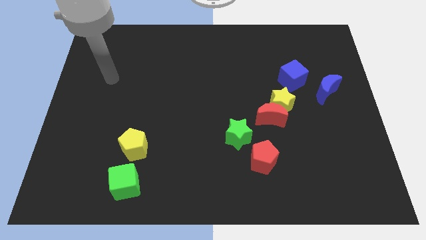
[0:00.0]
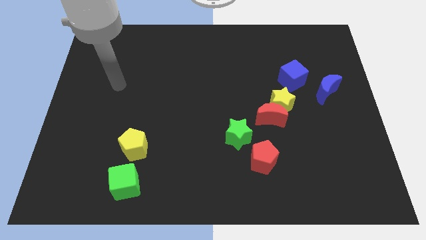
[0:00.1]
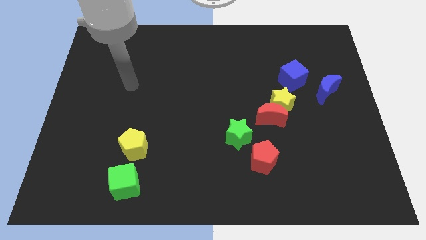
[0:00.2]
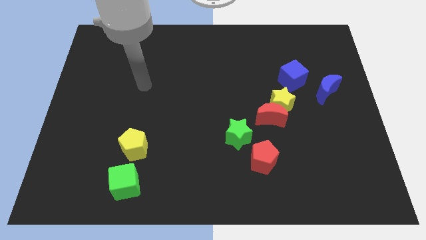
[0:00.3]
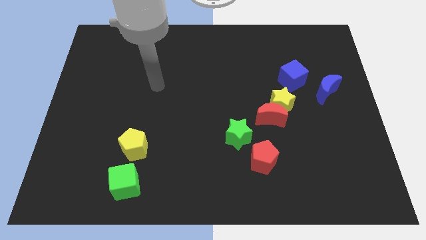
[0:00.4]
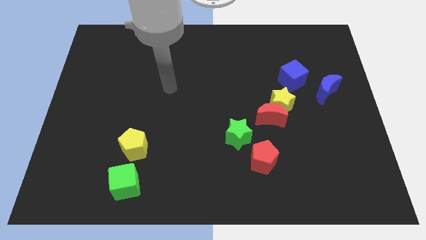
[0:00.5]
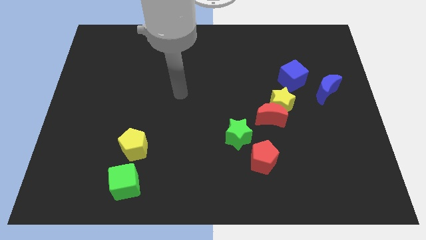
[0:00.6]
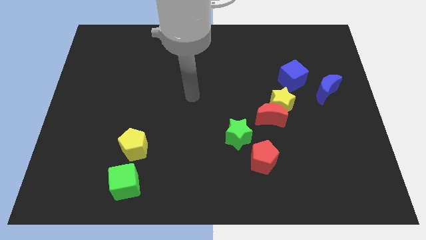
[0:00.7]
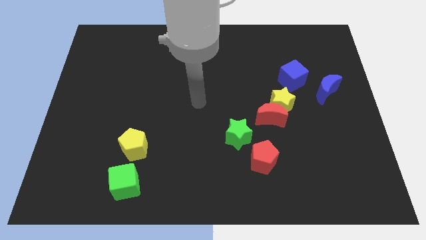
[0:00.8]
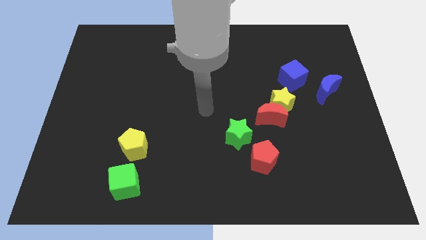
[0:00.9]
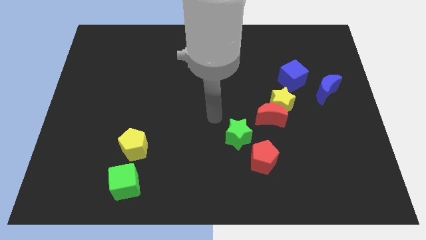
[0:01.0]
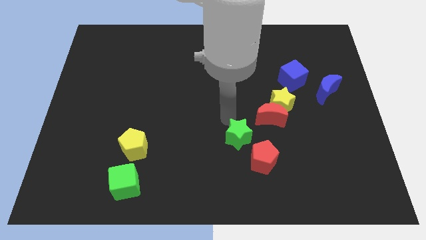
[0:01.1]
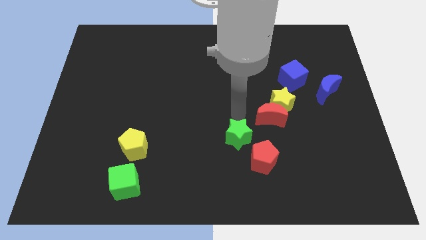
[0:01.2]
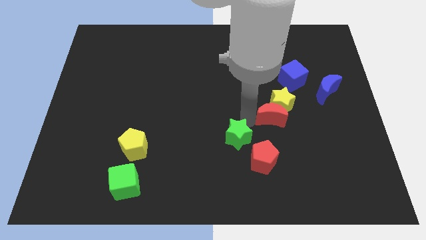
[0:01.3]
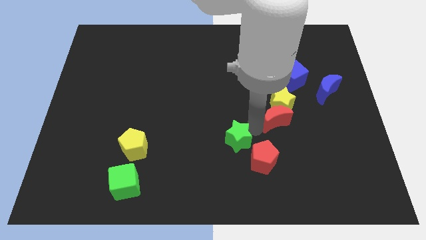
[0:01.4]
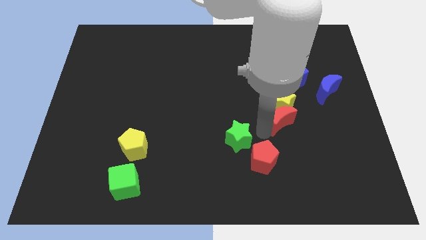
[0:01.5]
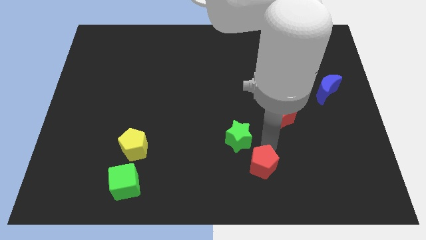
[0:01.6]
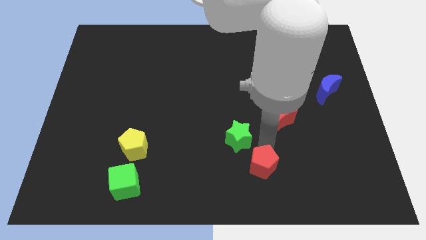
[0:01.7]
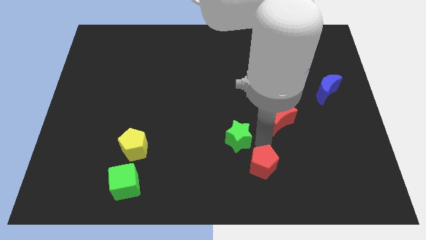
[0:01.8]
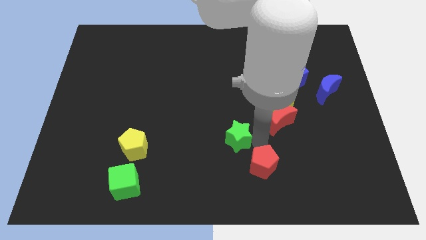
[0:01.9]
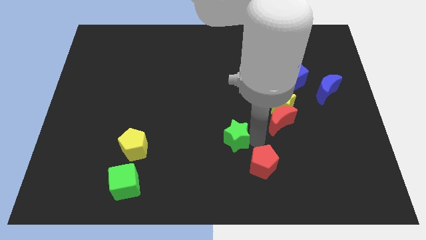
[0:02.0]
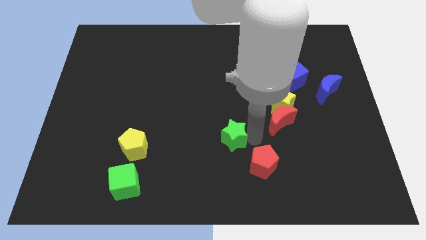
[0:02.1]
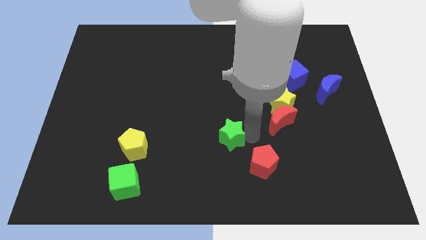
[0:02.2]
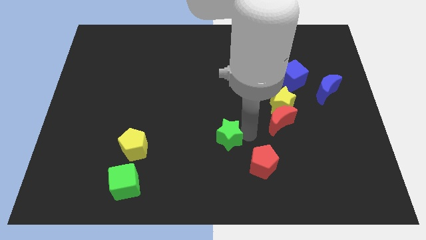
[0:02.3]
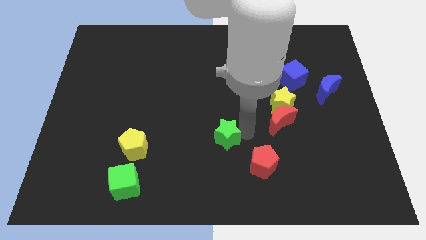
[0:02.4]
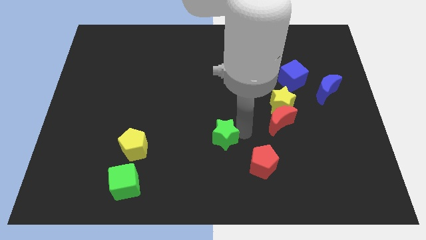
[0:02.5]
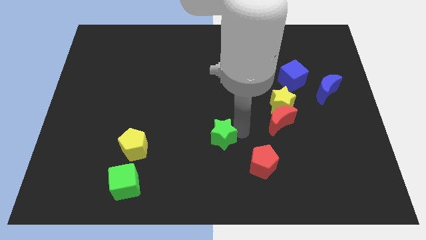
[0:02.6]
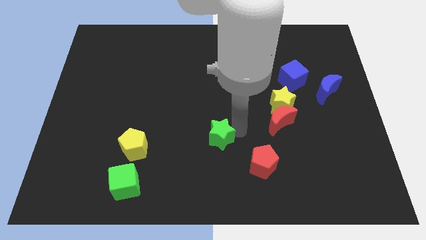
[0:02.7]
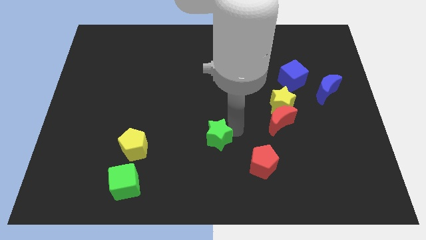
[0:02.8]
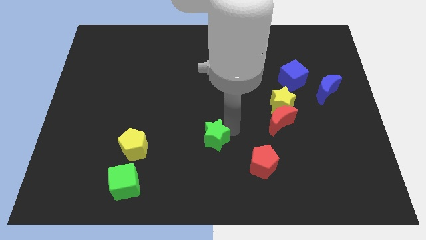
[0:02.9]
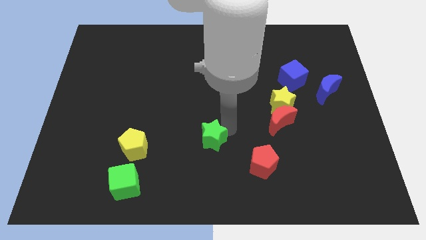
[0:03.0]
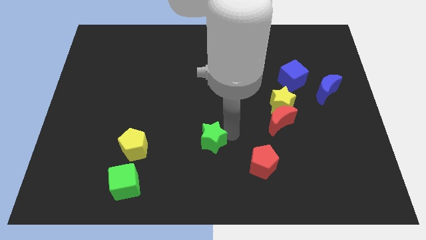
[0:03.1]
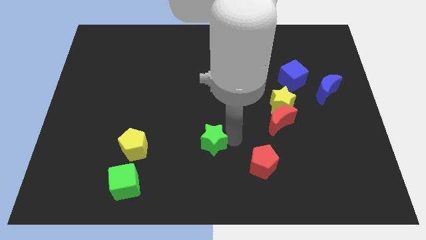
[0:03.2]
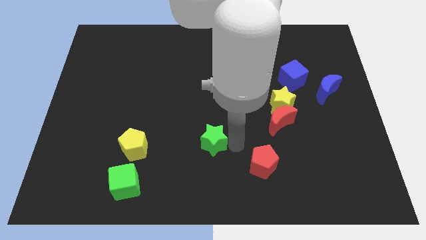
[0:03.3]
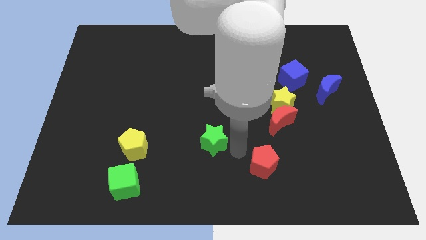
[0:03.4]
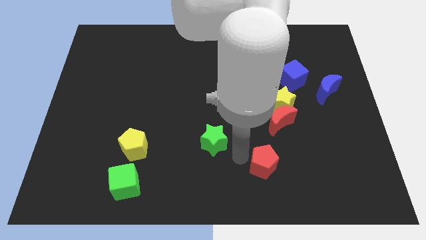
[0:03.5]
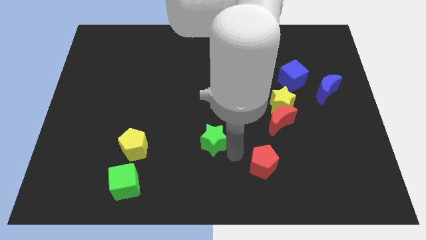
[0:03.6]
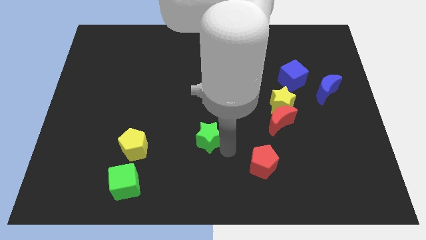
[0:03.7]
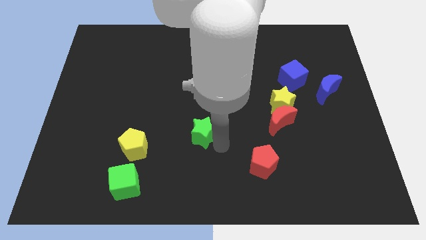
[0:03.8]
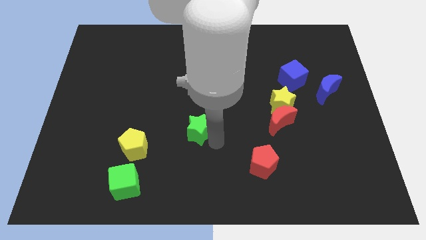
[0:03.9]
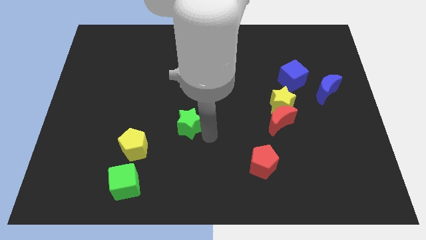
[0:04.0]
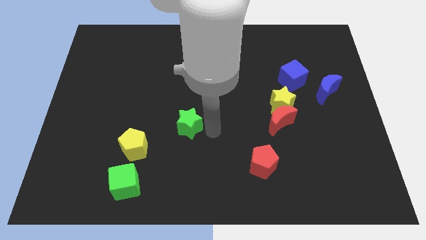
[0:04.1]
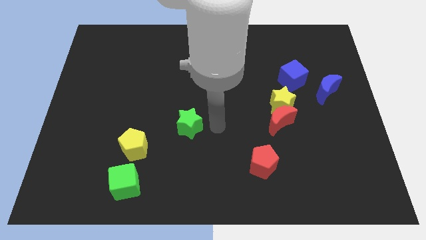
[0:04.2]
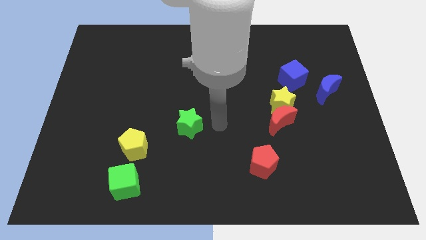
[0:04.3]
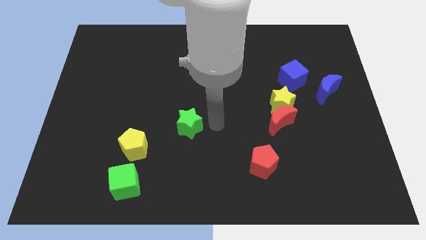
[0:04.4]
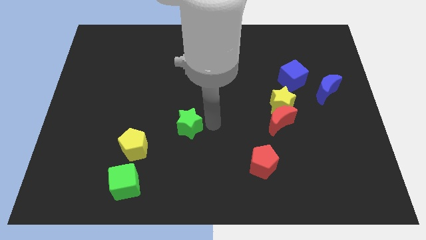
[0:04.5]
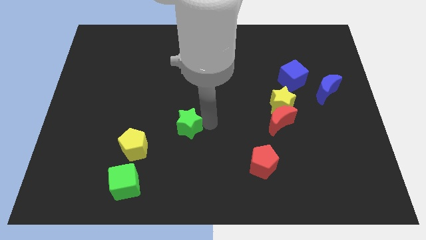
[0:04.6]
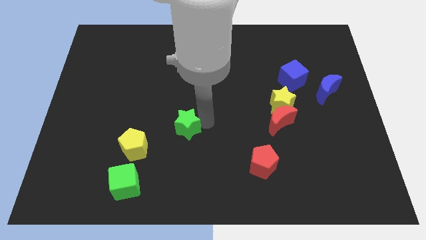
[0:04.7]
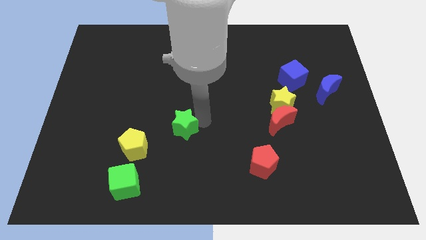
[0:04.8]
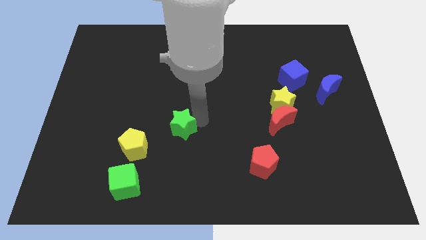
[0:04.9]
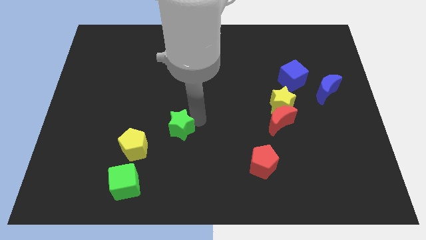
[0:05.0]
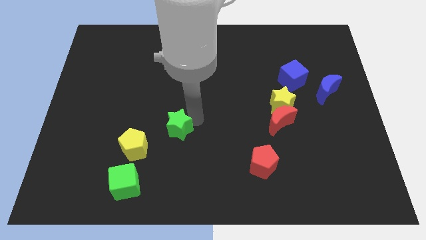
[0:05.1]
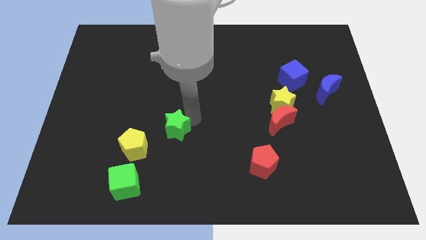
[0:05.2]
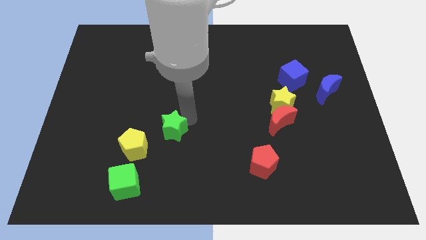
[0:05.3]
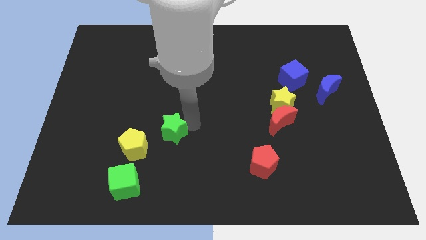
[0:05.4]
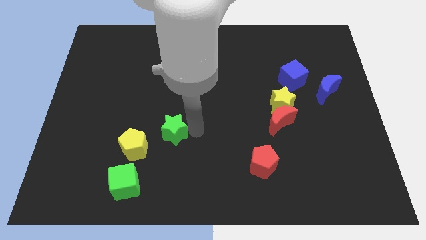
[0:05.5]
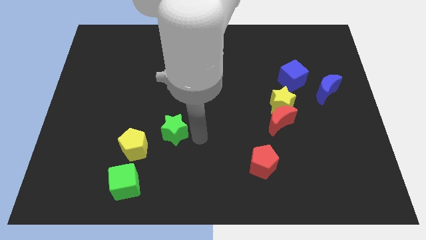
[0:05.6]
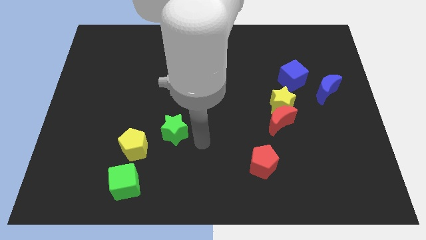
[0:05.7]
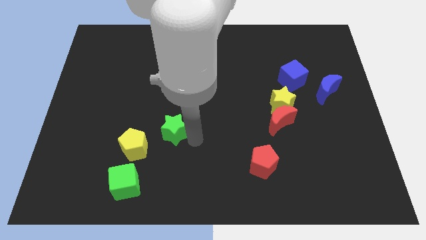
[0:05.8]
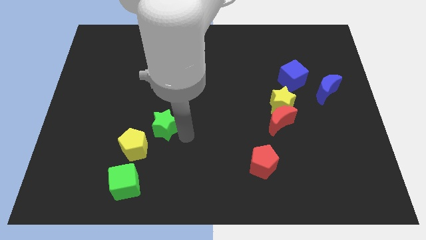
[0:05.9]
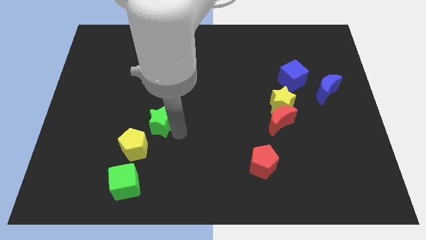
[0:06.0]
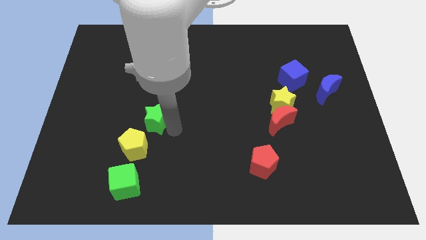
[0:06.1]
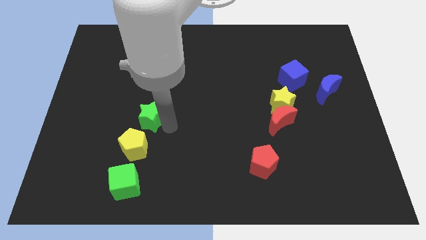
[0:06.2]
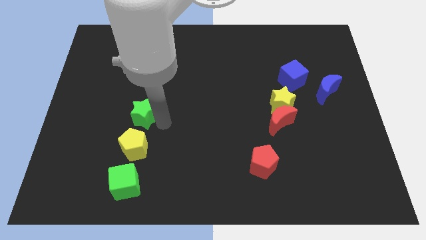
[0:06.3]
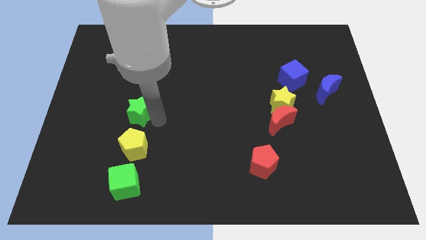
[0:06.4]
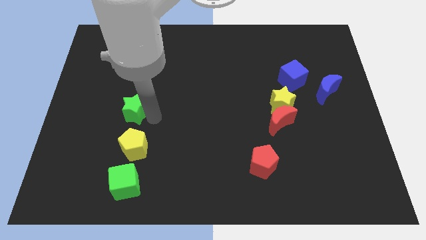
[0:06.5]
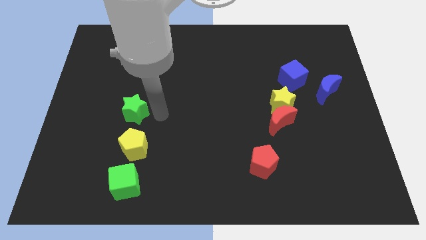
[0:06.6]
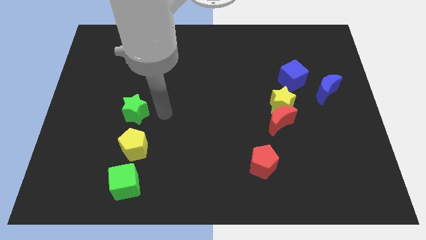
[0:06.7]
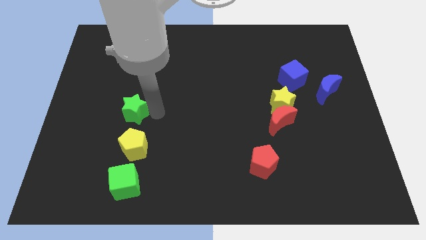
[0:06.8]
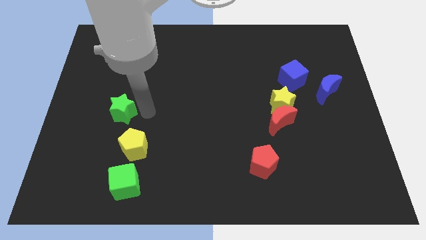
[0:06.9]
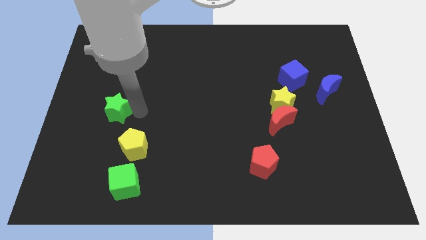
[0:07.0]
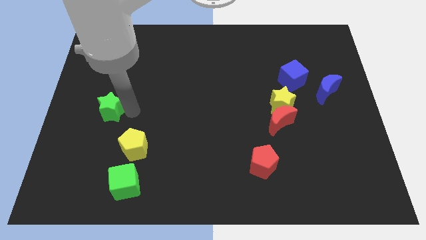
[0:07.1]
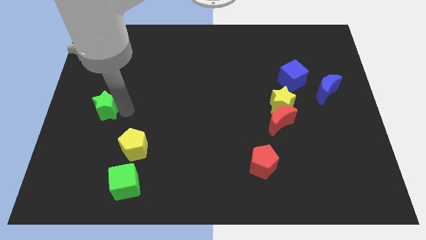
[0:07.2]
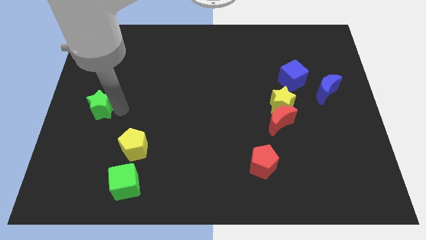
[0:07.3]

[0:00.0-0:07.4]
put the green star to the left side
